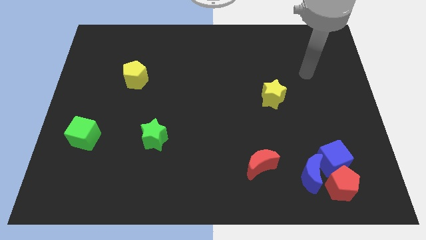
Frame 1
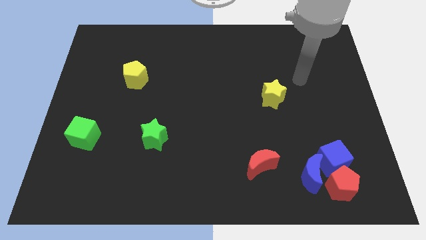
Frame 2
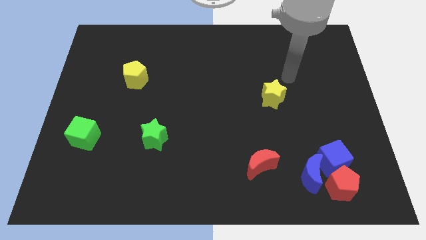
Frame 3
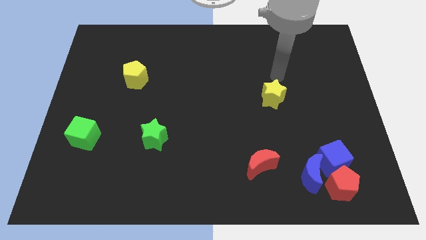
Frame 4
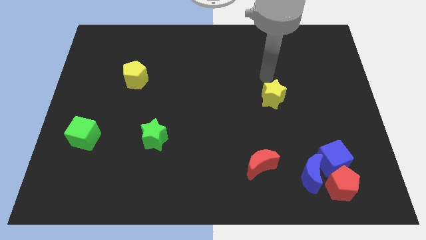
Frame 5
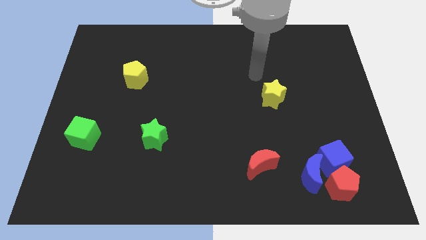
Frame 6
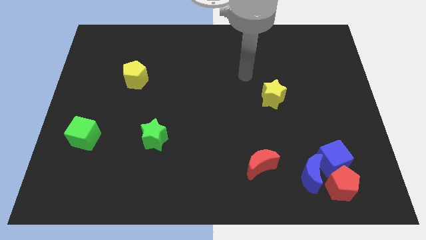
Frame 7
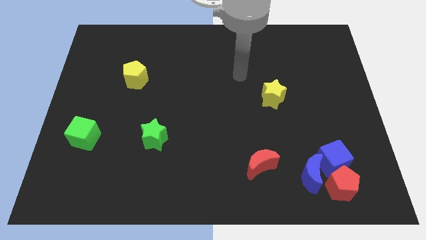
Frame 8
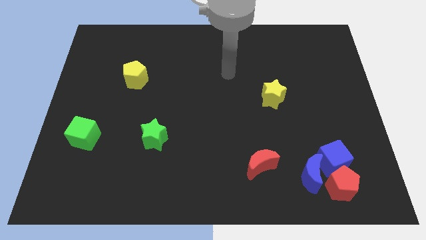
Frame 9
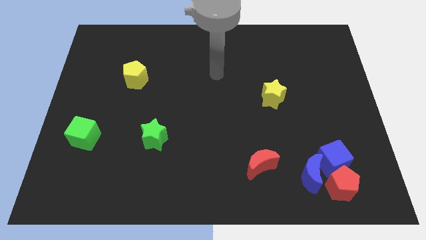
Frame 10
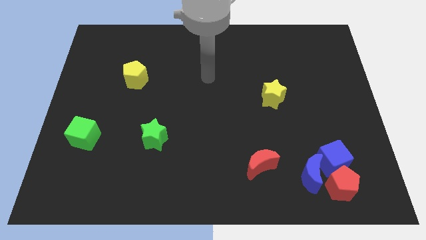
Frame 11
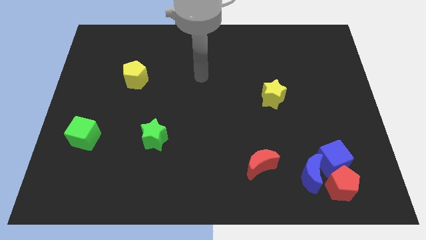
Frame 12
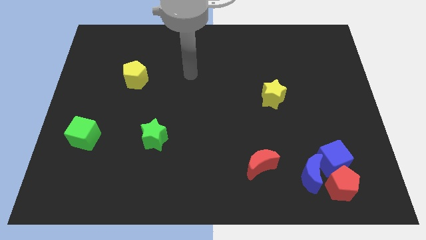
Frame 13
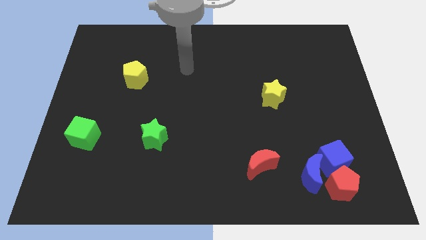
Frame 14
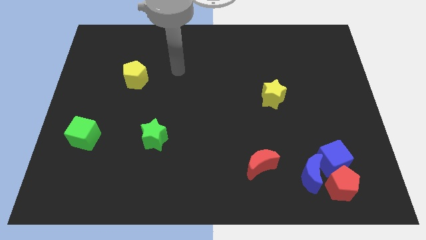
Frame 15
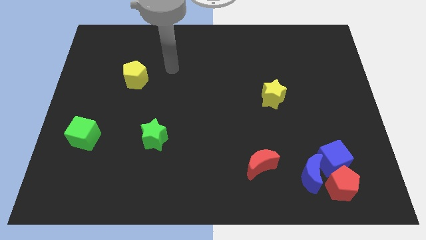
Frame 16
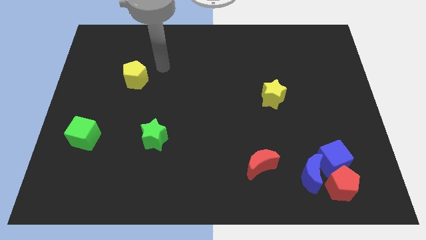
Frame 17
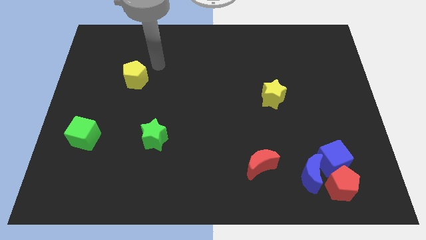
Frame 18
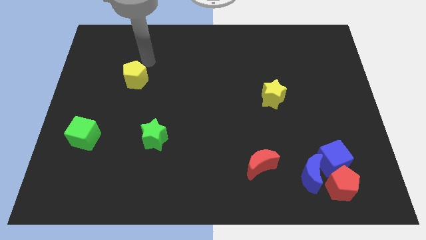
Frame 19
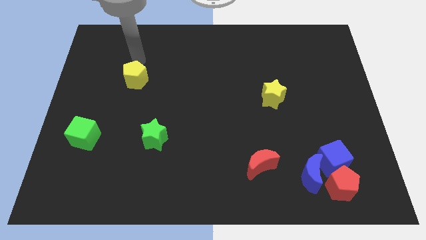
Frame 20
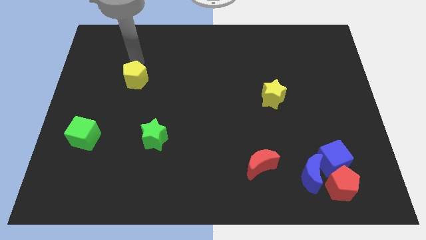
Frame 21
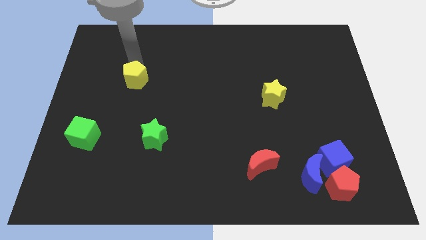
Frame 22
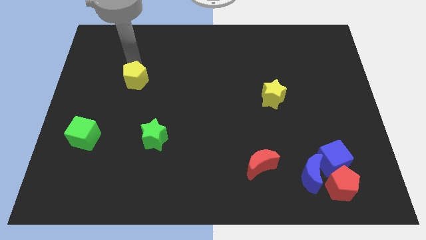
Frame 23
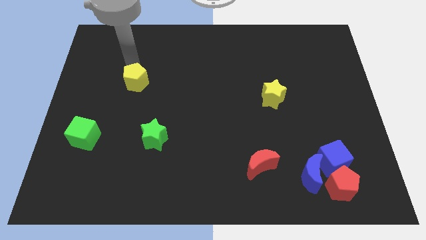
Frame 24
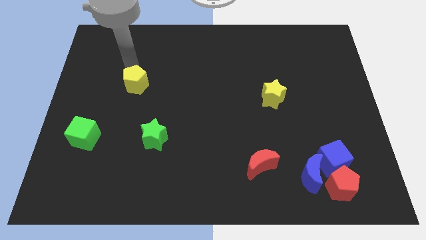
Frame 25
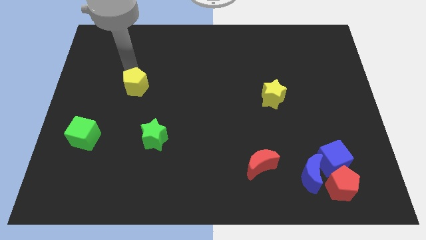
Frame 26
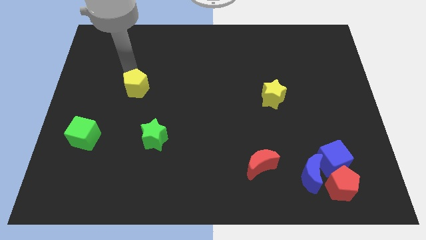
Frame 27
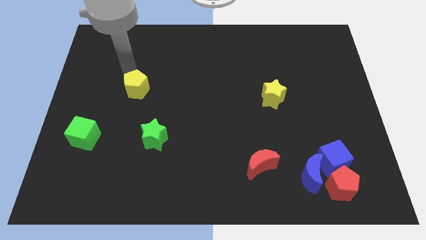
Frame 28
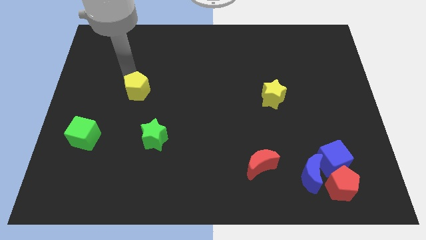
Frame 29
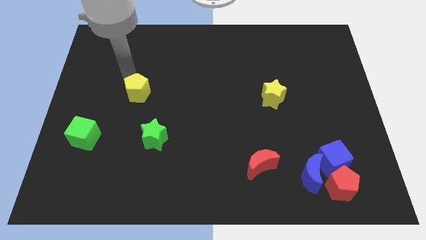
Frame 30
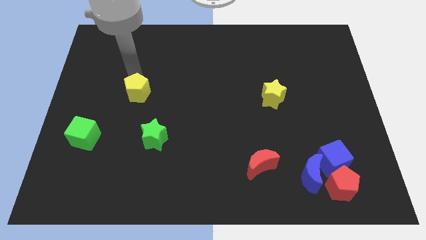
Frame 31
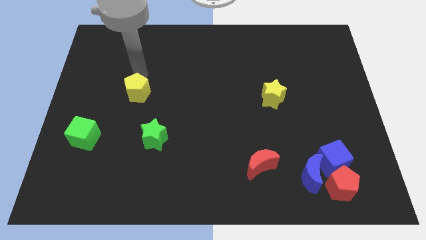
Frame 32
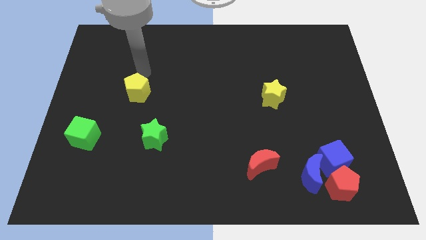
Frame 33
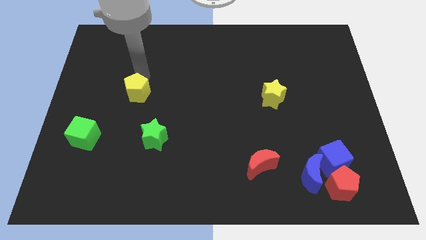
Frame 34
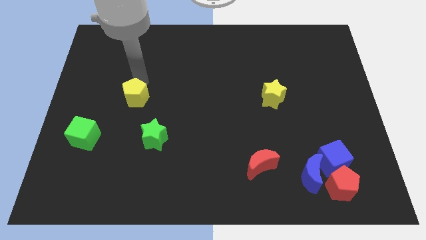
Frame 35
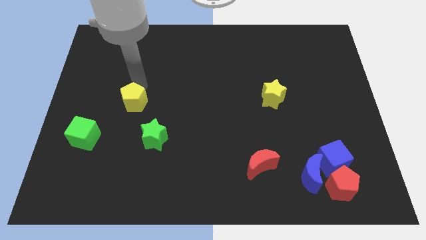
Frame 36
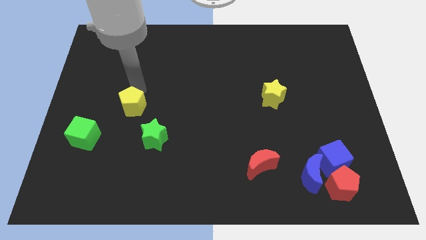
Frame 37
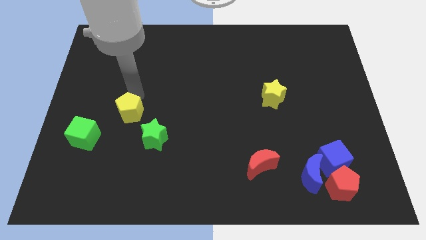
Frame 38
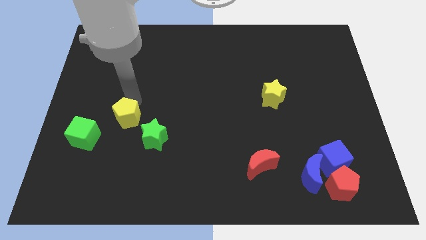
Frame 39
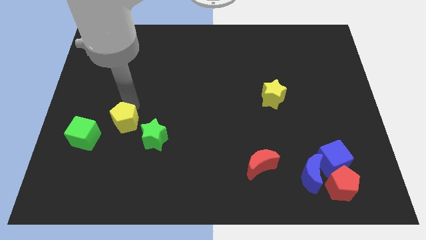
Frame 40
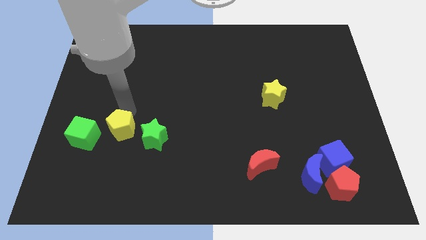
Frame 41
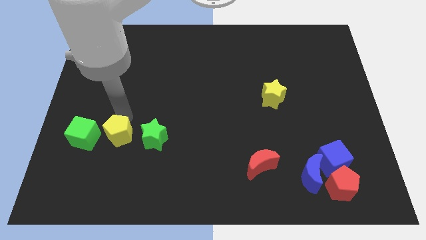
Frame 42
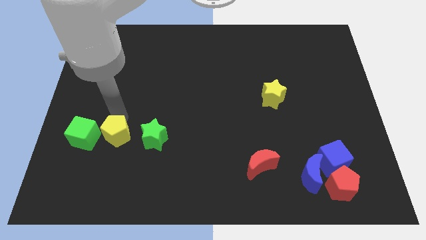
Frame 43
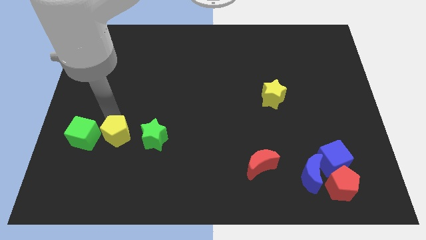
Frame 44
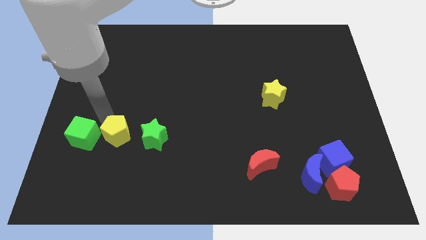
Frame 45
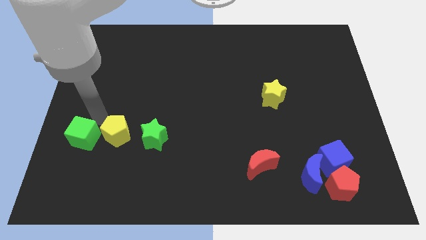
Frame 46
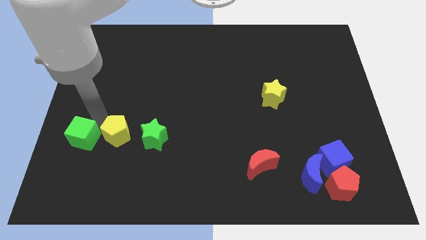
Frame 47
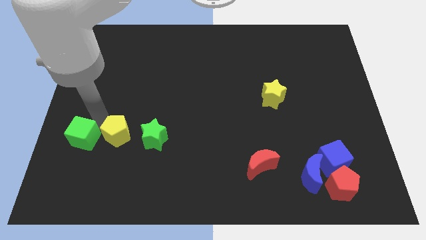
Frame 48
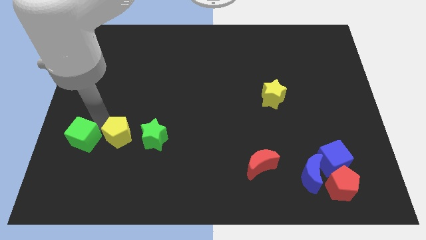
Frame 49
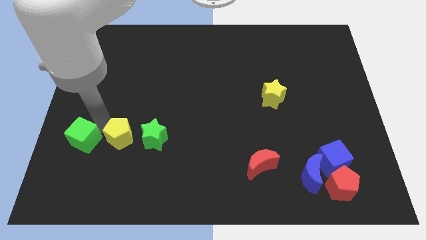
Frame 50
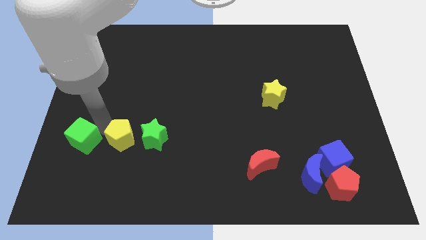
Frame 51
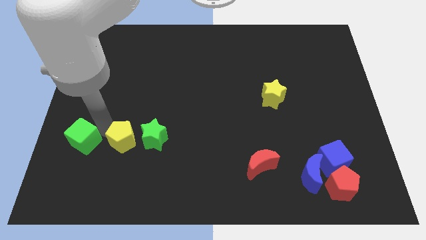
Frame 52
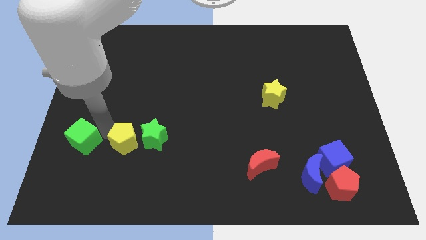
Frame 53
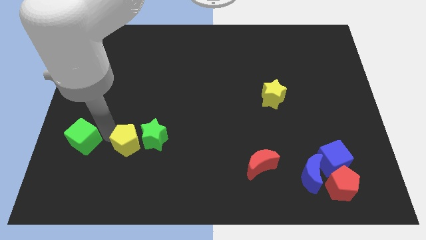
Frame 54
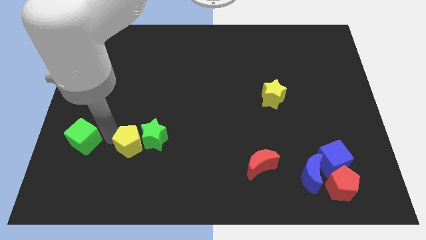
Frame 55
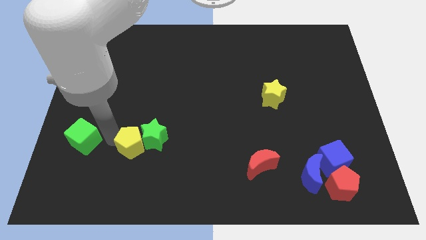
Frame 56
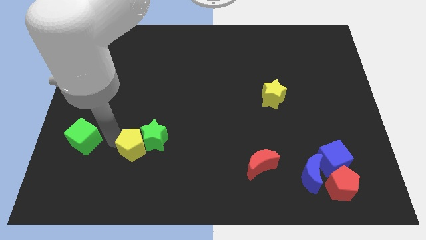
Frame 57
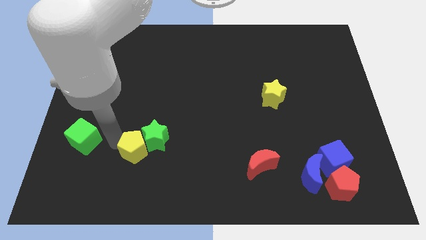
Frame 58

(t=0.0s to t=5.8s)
push the yellow pentagon to the bottom side of the green star

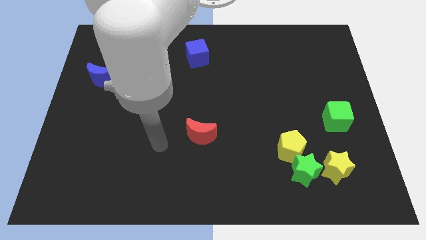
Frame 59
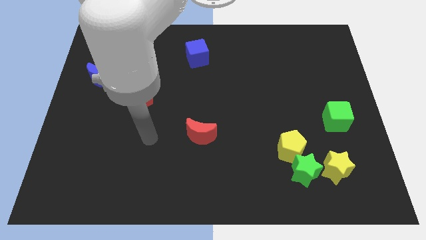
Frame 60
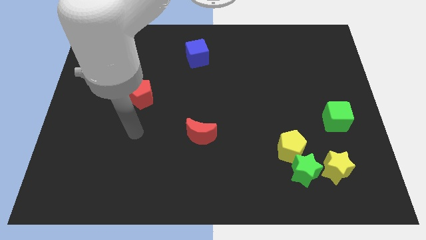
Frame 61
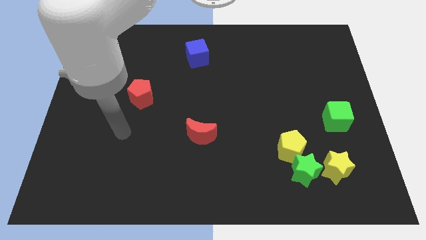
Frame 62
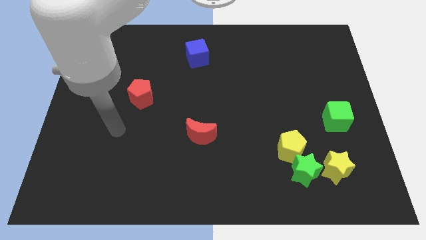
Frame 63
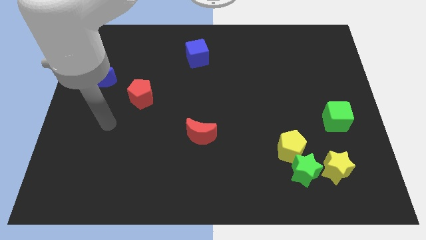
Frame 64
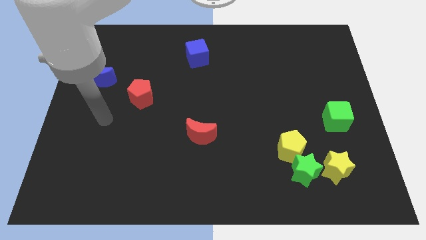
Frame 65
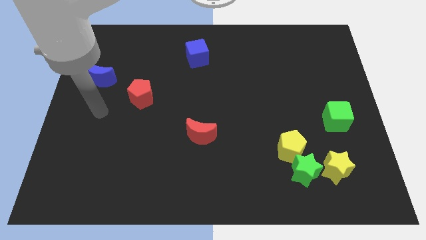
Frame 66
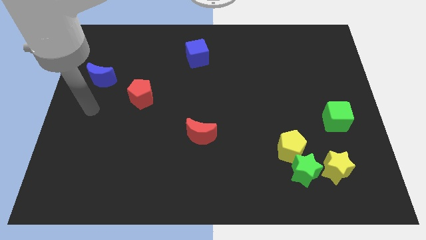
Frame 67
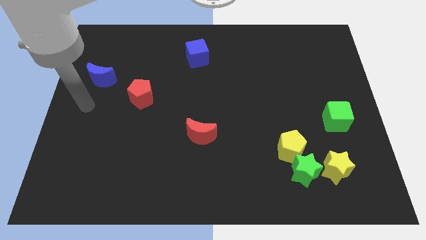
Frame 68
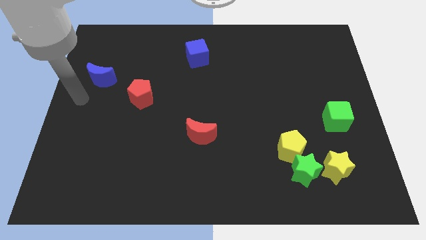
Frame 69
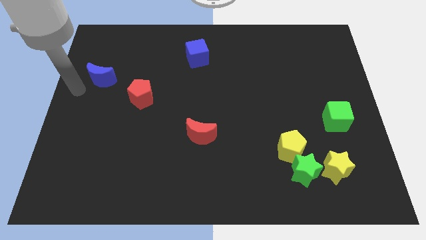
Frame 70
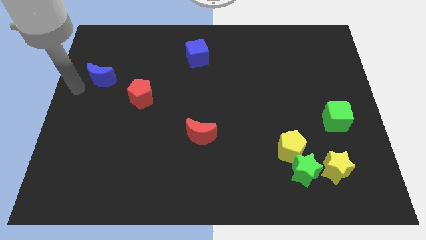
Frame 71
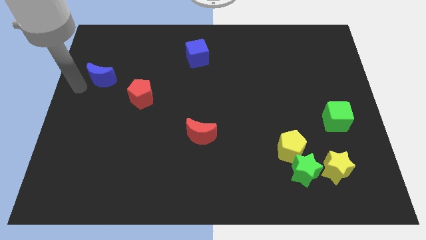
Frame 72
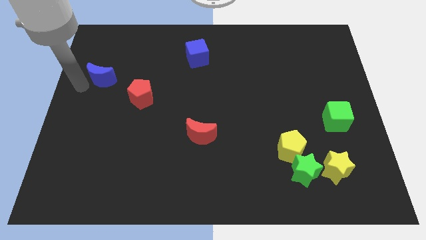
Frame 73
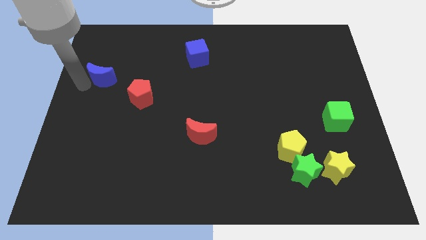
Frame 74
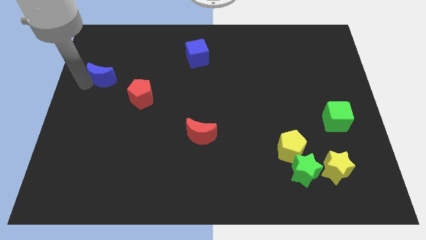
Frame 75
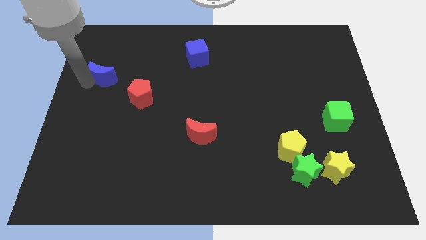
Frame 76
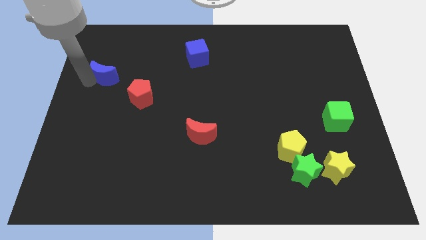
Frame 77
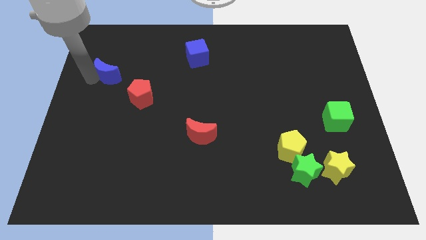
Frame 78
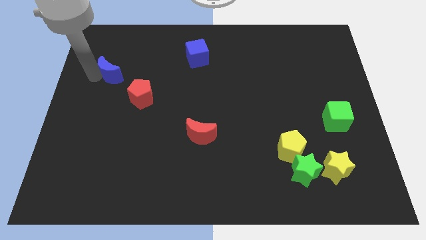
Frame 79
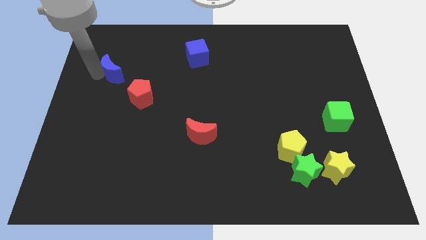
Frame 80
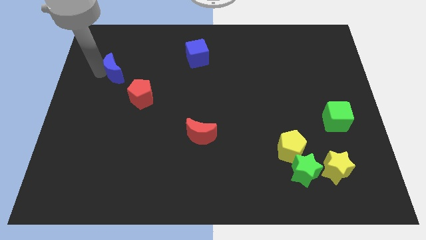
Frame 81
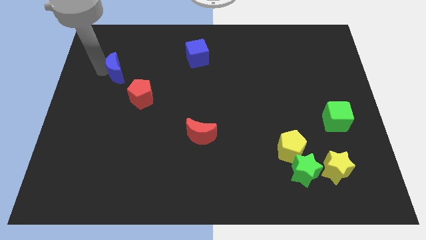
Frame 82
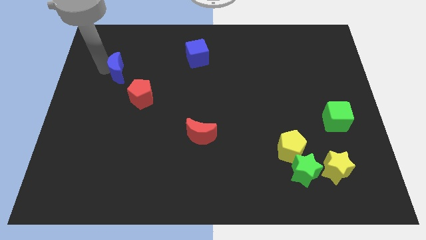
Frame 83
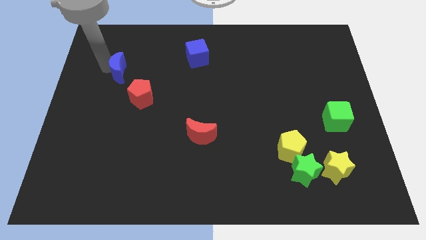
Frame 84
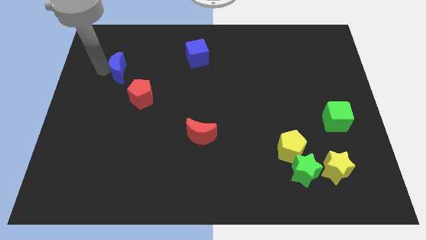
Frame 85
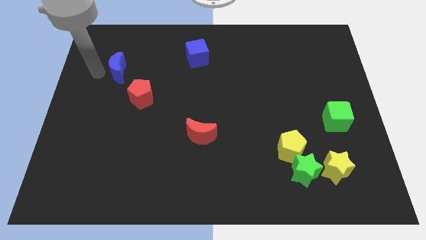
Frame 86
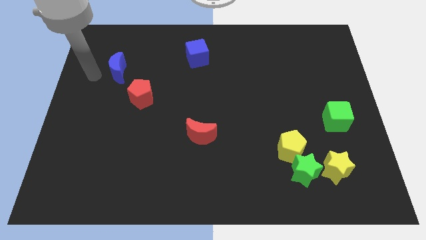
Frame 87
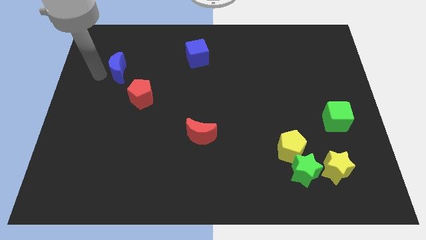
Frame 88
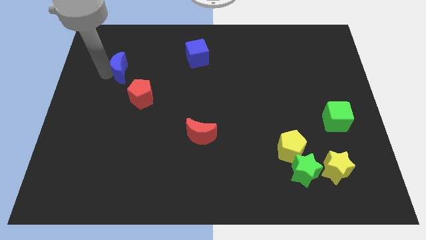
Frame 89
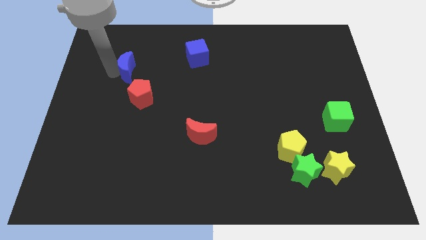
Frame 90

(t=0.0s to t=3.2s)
move the blue moon to the top side of the red pentagon
